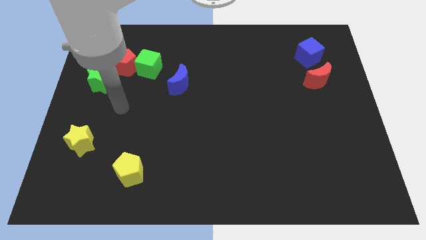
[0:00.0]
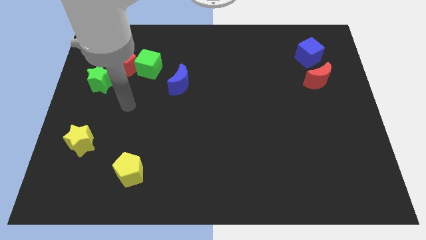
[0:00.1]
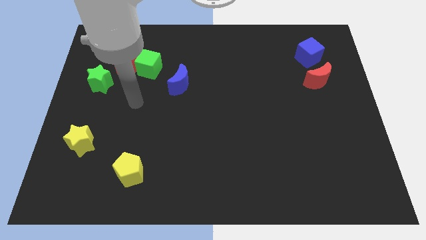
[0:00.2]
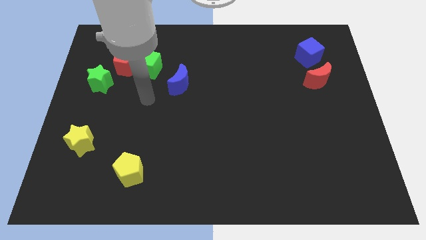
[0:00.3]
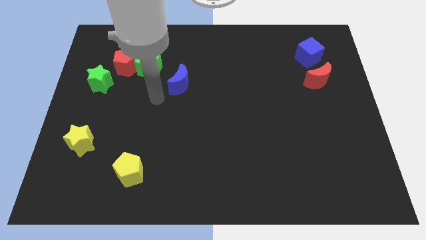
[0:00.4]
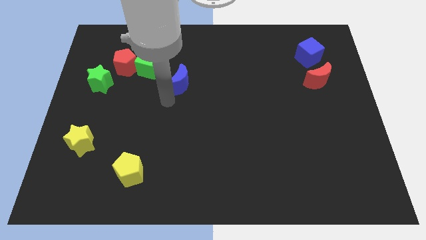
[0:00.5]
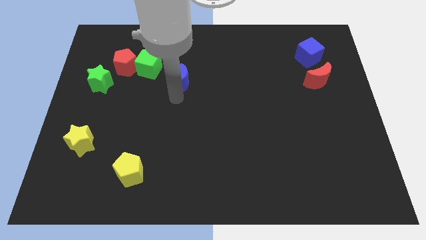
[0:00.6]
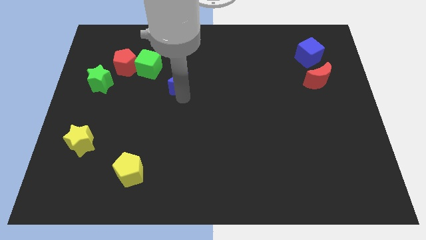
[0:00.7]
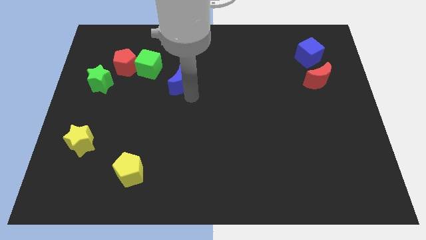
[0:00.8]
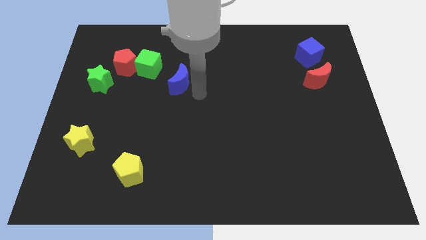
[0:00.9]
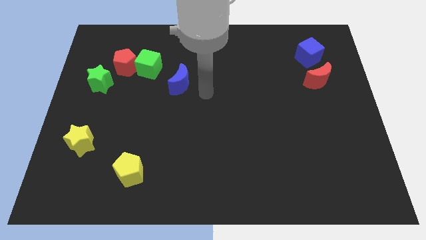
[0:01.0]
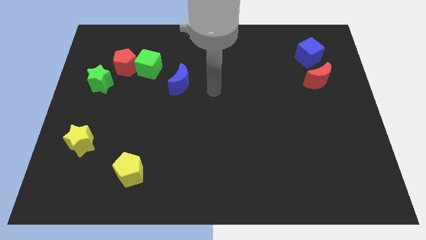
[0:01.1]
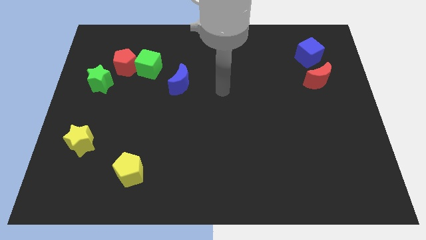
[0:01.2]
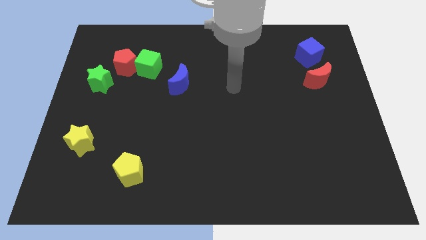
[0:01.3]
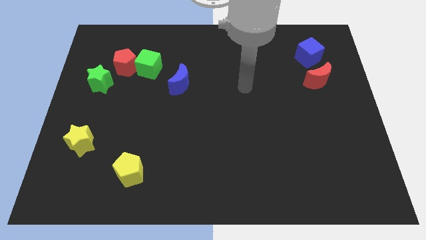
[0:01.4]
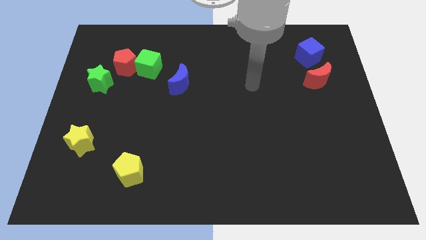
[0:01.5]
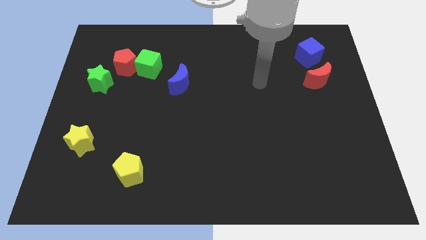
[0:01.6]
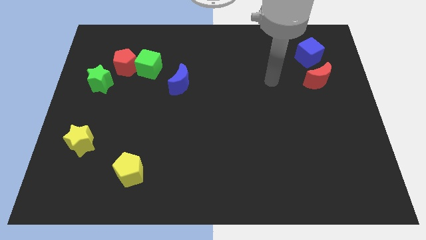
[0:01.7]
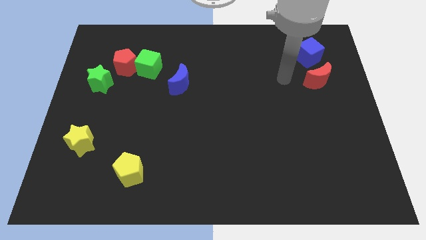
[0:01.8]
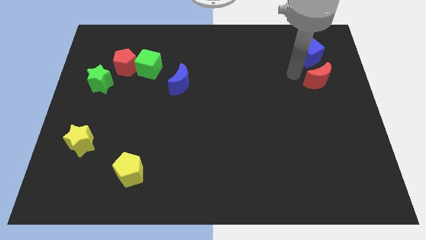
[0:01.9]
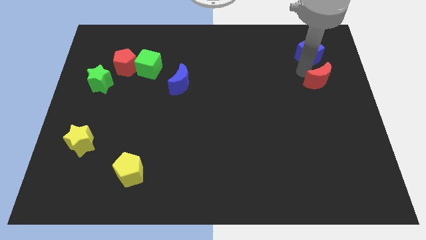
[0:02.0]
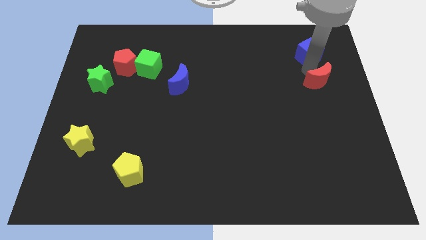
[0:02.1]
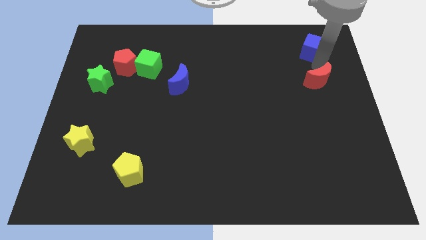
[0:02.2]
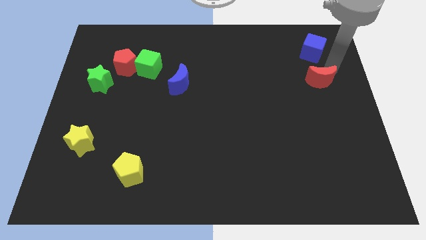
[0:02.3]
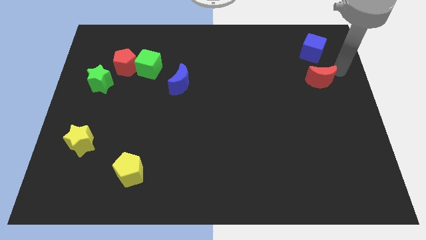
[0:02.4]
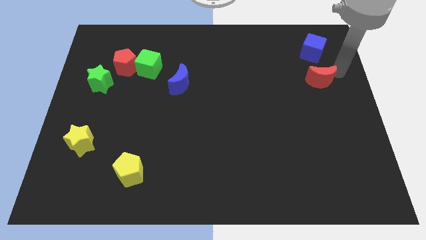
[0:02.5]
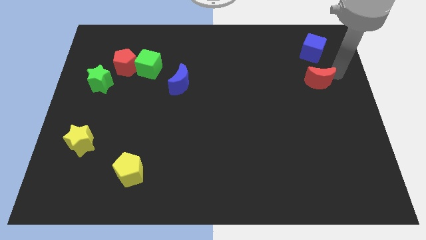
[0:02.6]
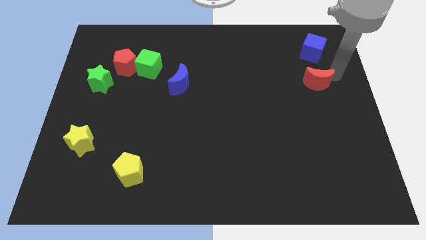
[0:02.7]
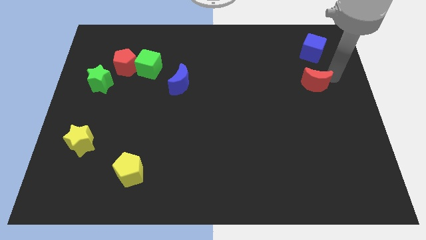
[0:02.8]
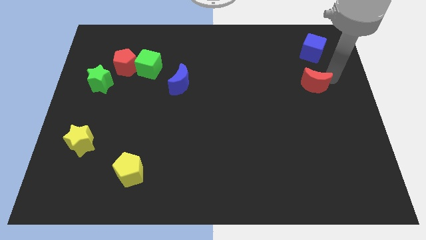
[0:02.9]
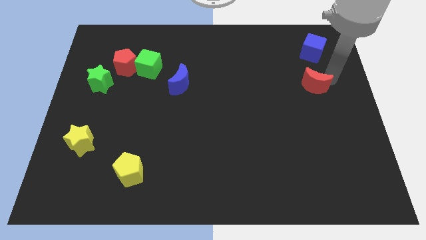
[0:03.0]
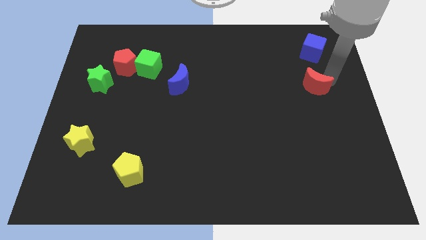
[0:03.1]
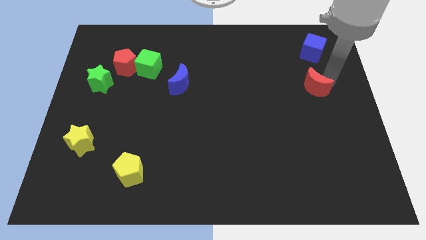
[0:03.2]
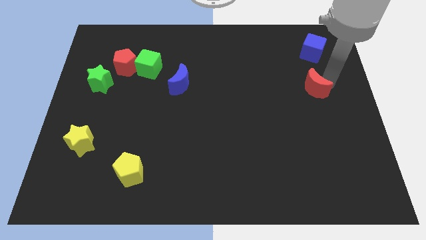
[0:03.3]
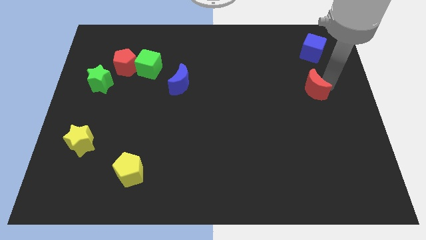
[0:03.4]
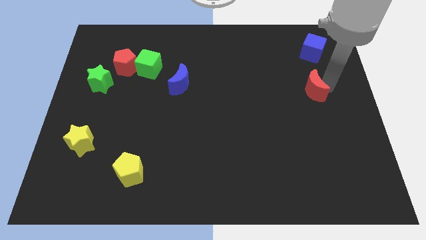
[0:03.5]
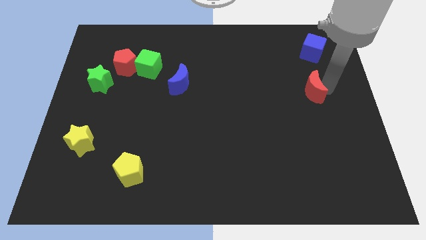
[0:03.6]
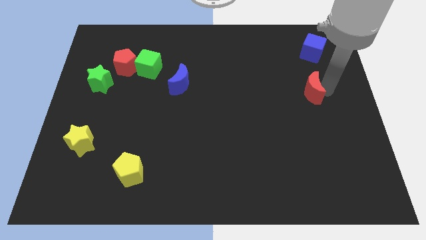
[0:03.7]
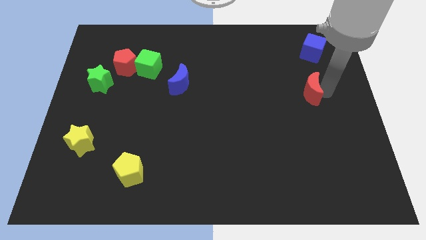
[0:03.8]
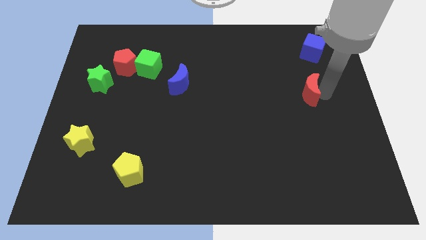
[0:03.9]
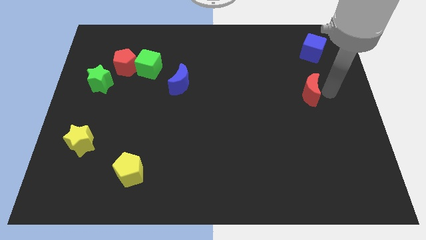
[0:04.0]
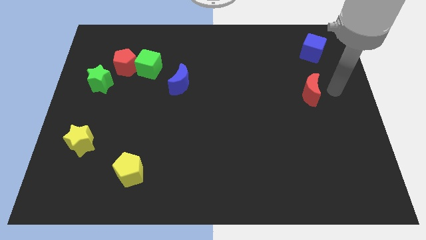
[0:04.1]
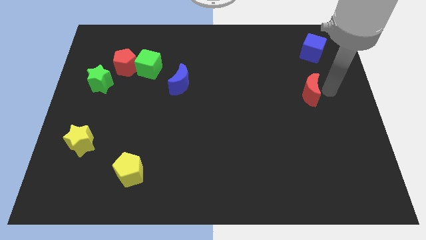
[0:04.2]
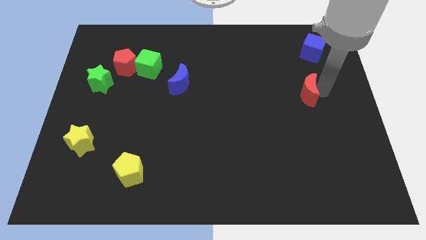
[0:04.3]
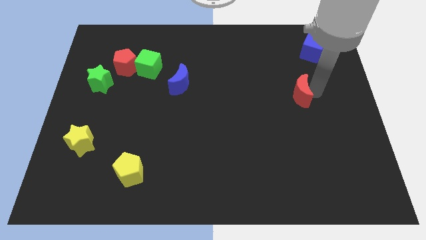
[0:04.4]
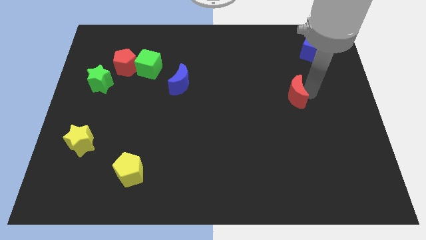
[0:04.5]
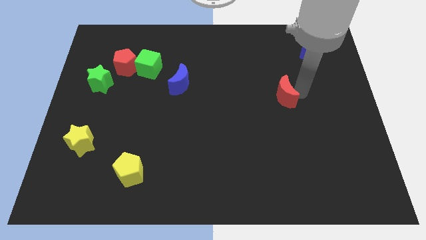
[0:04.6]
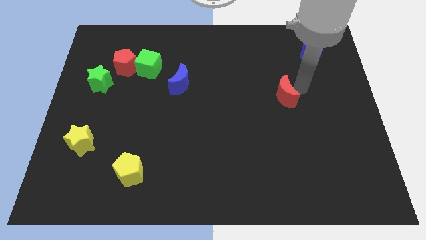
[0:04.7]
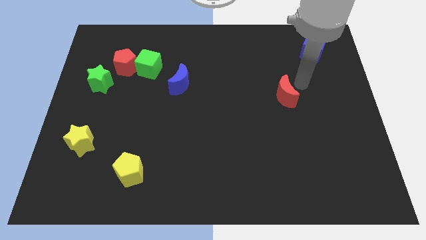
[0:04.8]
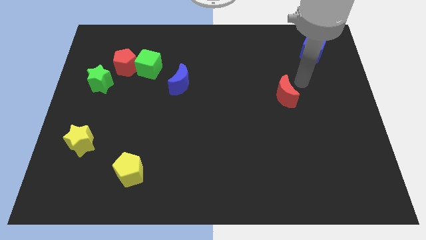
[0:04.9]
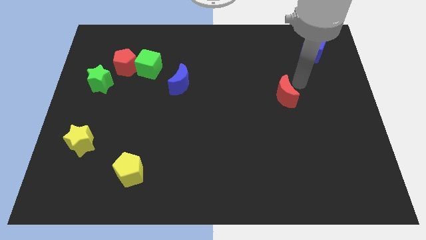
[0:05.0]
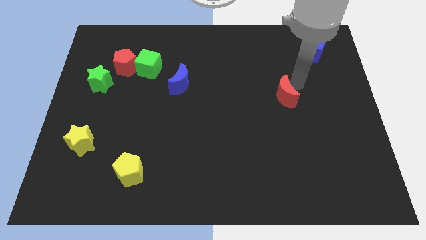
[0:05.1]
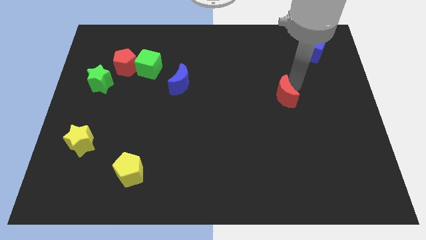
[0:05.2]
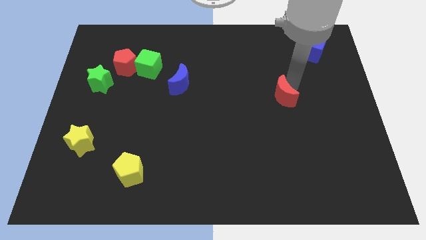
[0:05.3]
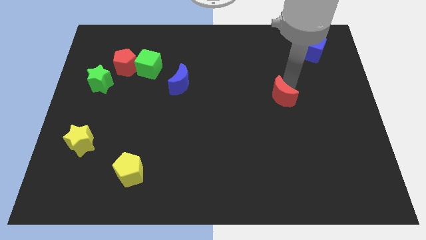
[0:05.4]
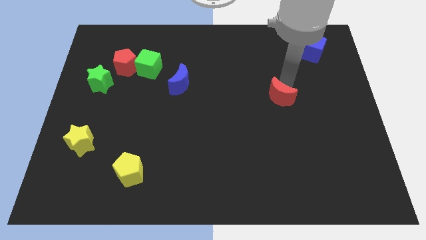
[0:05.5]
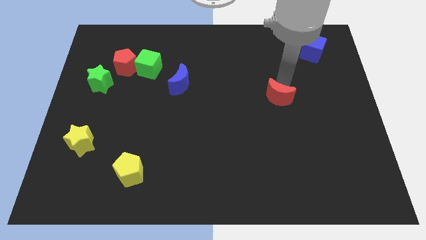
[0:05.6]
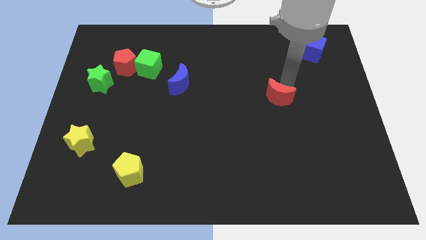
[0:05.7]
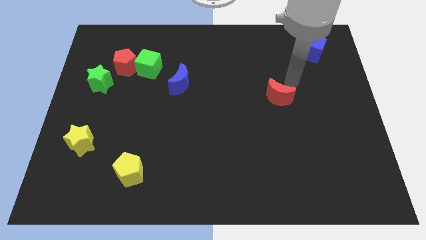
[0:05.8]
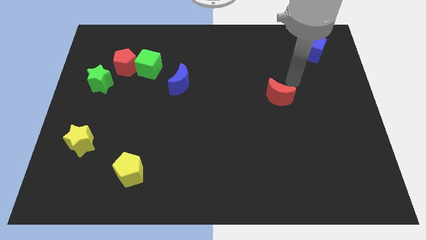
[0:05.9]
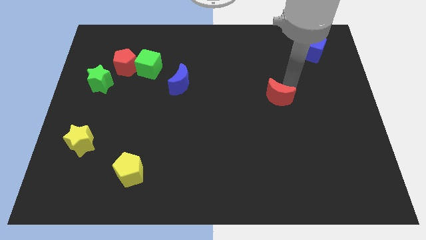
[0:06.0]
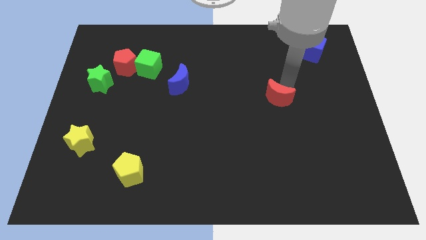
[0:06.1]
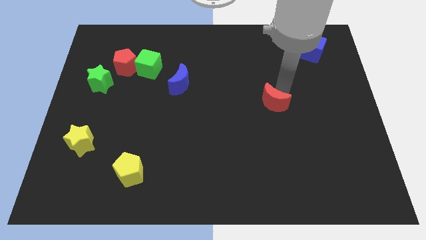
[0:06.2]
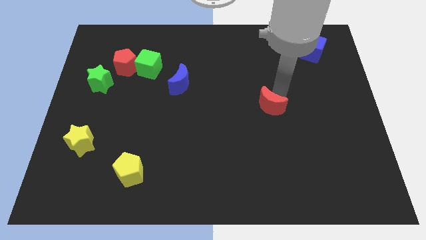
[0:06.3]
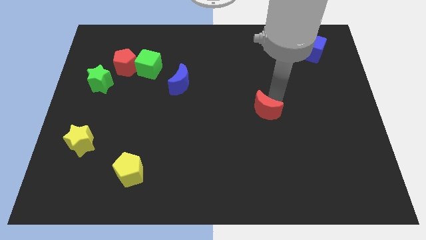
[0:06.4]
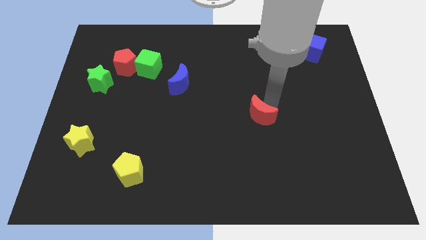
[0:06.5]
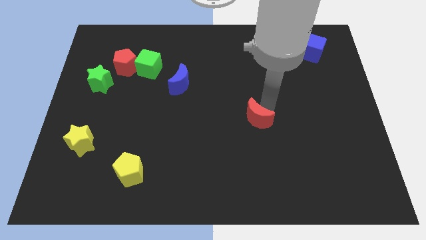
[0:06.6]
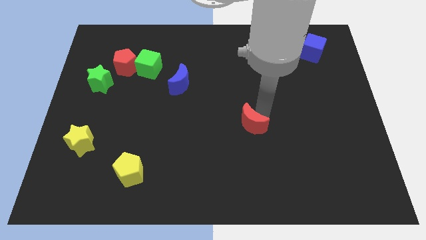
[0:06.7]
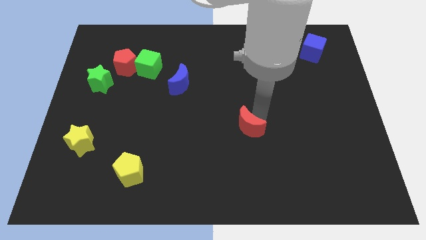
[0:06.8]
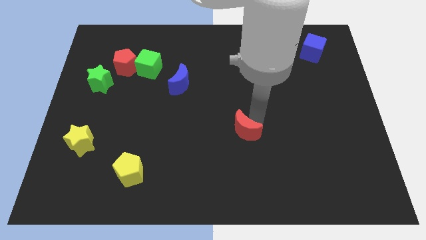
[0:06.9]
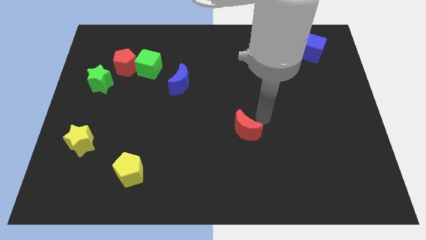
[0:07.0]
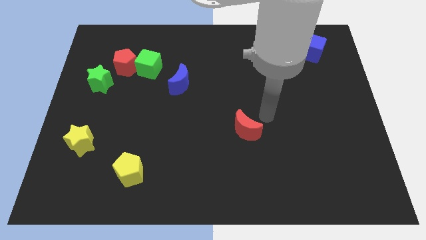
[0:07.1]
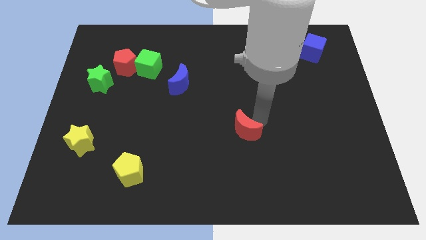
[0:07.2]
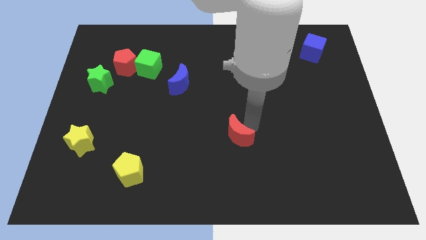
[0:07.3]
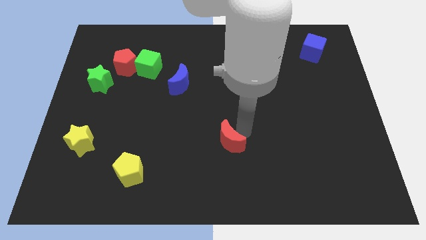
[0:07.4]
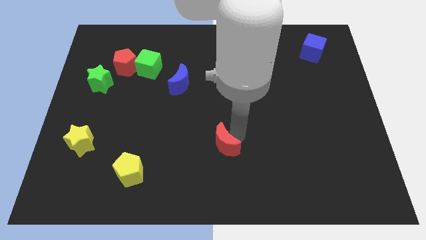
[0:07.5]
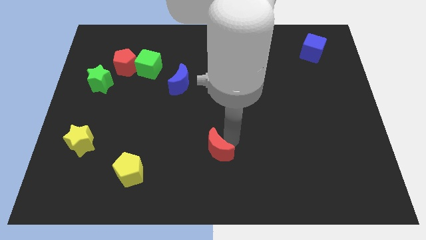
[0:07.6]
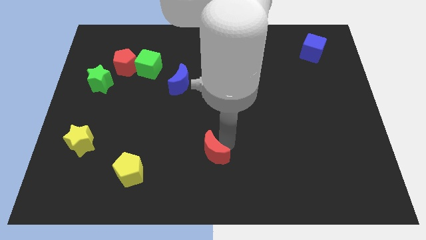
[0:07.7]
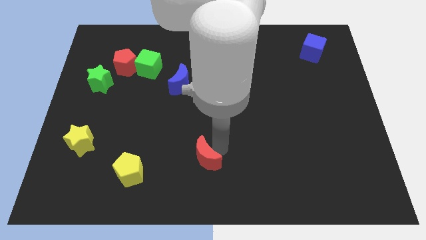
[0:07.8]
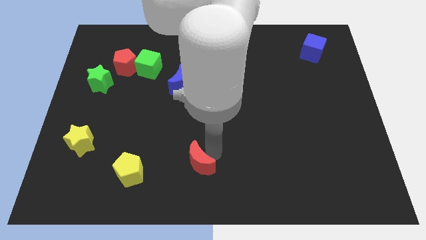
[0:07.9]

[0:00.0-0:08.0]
push the red moon to the right of the yellow pentagon
